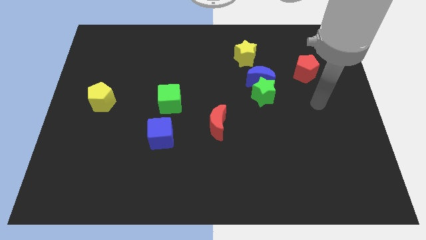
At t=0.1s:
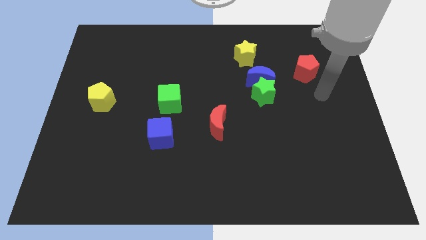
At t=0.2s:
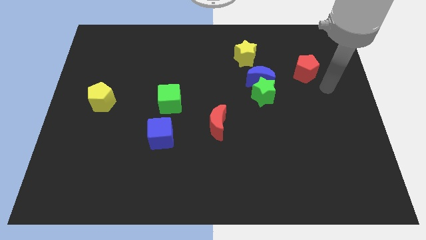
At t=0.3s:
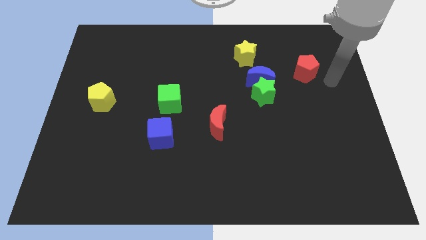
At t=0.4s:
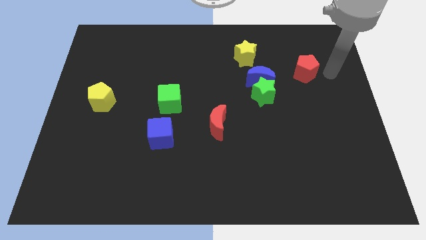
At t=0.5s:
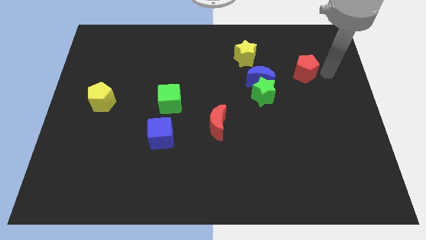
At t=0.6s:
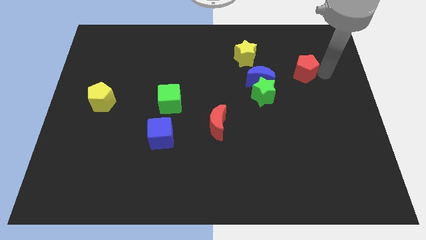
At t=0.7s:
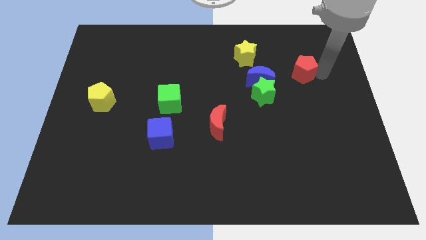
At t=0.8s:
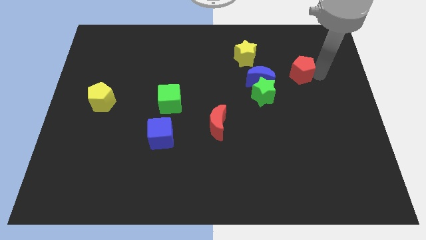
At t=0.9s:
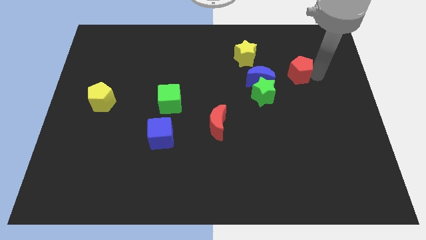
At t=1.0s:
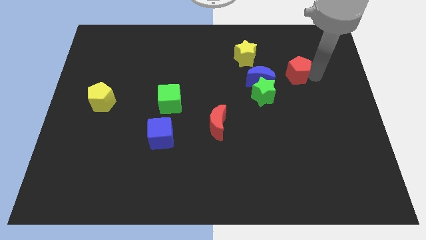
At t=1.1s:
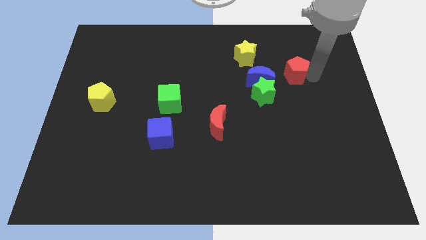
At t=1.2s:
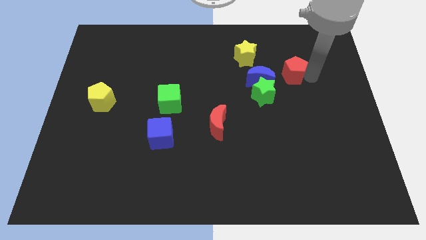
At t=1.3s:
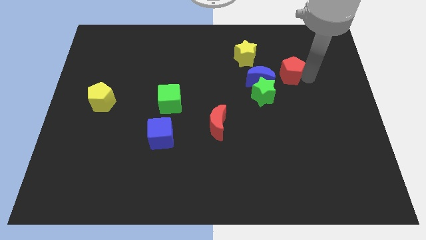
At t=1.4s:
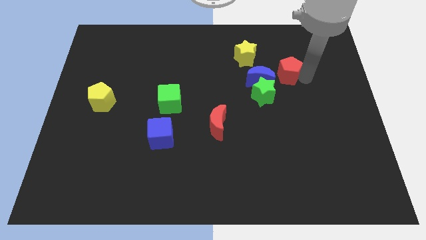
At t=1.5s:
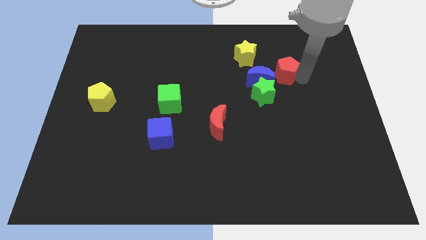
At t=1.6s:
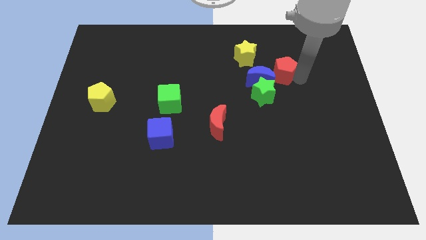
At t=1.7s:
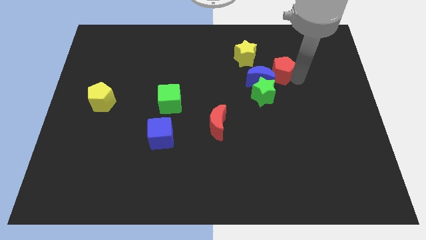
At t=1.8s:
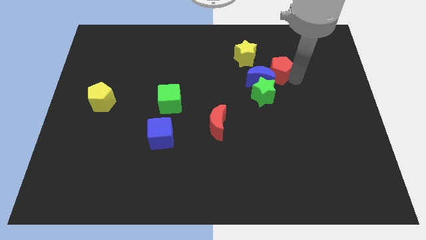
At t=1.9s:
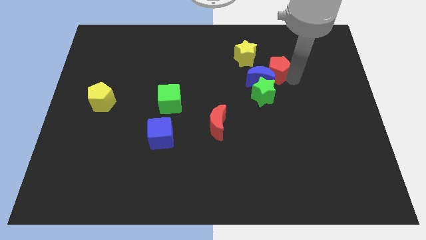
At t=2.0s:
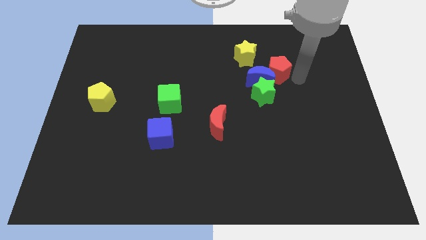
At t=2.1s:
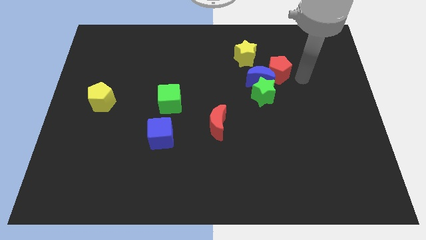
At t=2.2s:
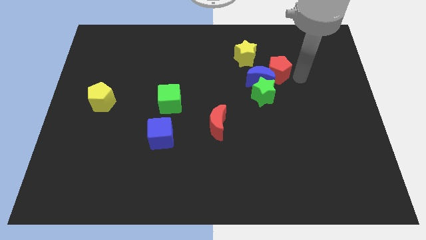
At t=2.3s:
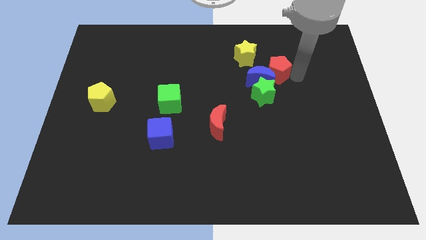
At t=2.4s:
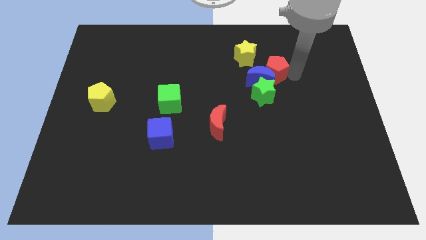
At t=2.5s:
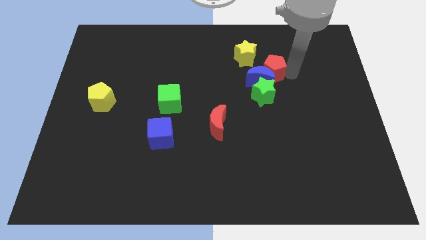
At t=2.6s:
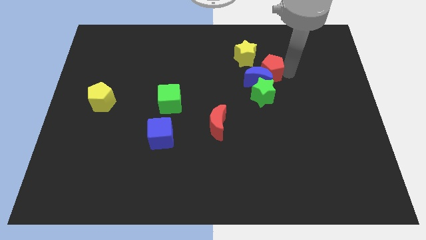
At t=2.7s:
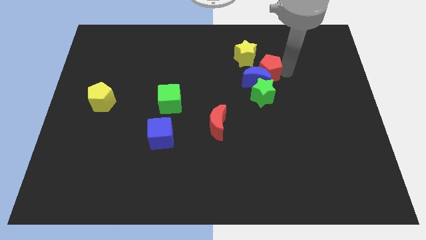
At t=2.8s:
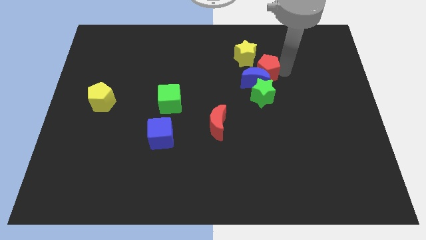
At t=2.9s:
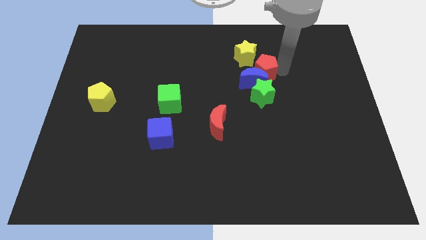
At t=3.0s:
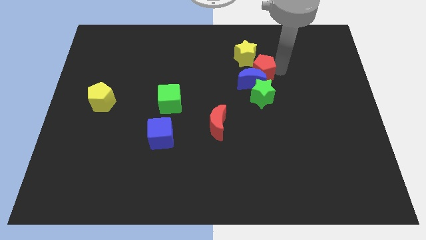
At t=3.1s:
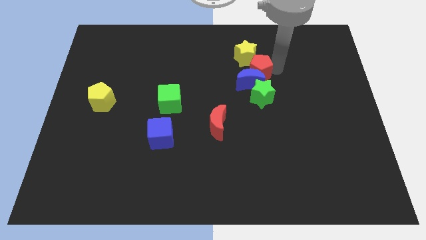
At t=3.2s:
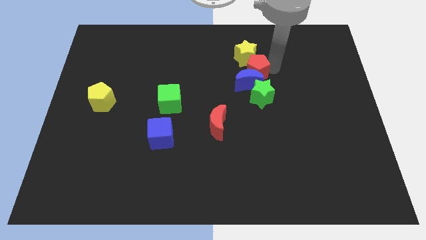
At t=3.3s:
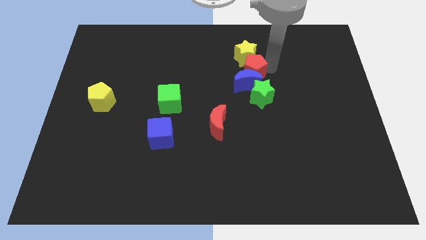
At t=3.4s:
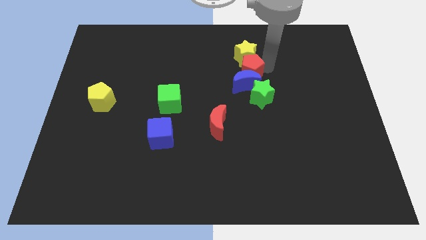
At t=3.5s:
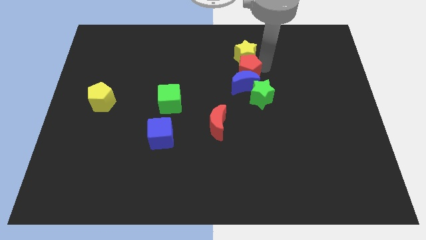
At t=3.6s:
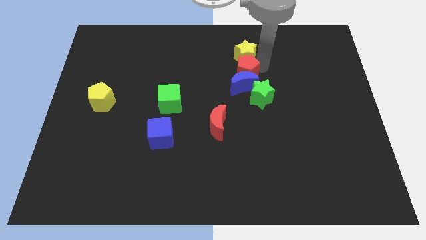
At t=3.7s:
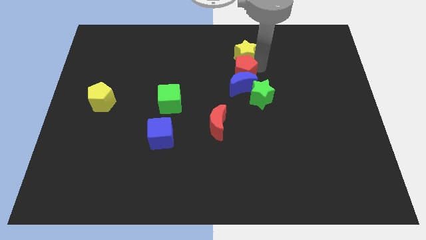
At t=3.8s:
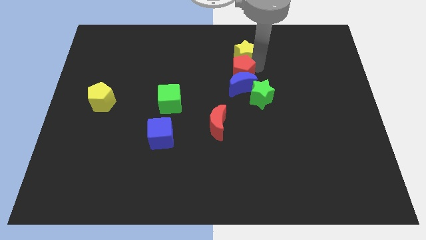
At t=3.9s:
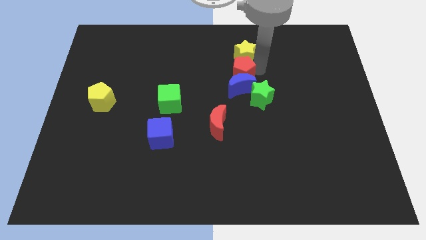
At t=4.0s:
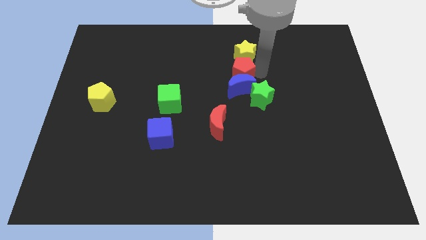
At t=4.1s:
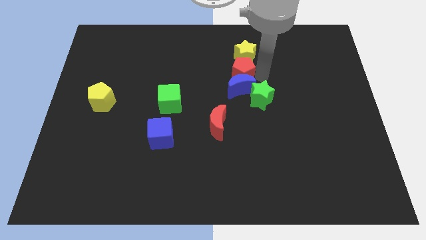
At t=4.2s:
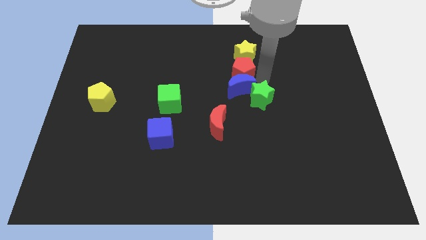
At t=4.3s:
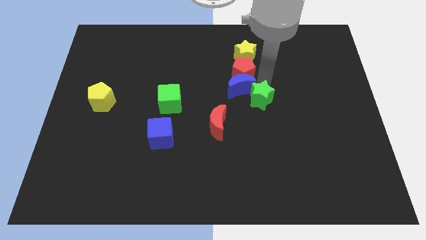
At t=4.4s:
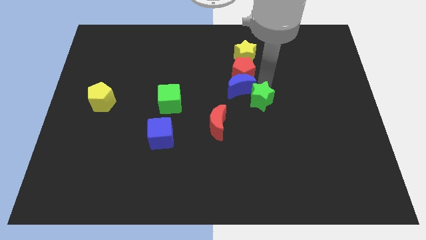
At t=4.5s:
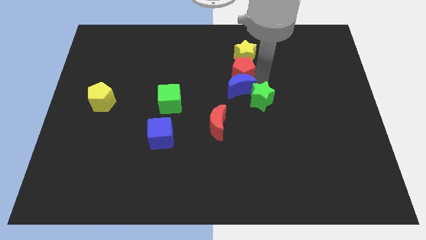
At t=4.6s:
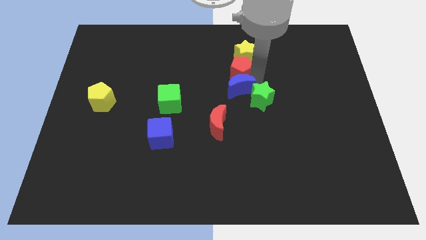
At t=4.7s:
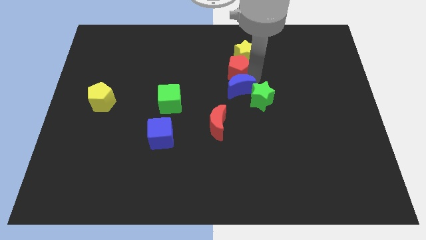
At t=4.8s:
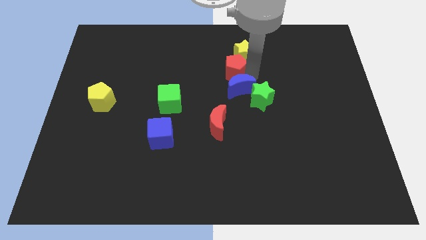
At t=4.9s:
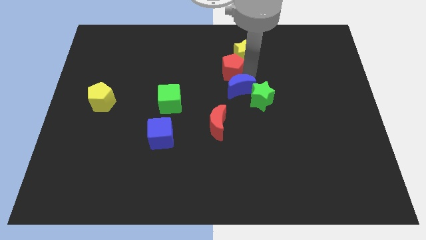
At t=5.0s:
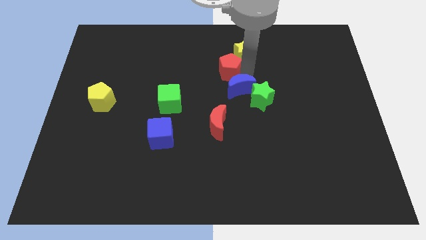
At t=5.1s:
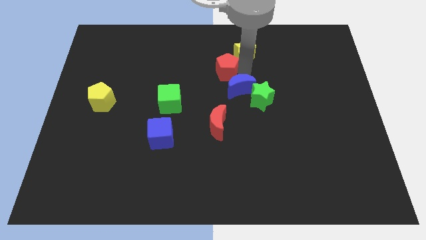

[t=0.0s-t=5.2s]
slide the red pentagon left

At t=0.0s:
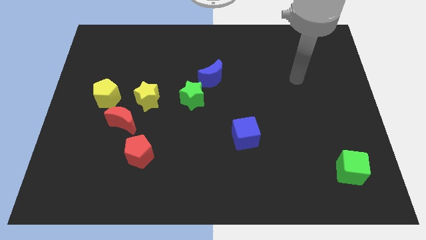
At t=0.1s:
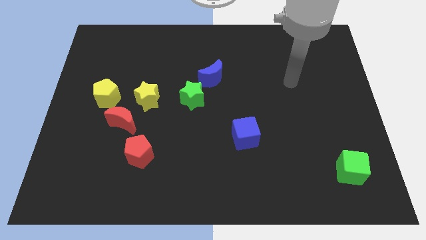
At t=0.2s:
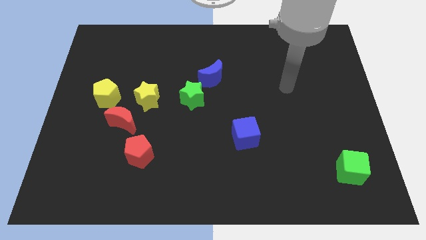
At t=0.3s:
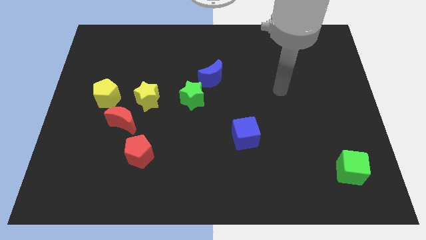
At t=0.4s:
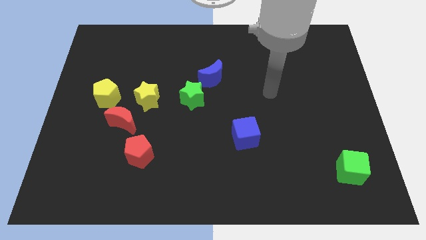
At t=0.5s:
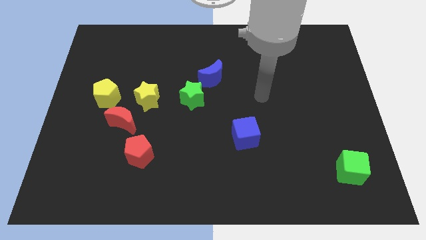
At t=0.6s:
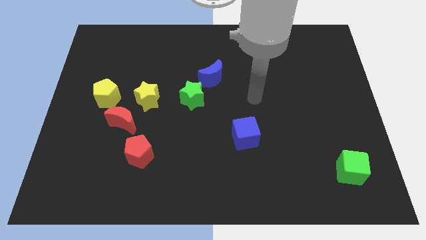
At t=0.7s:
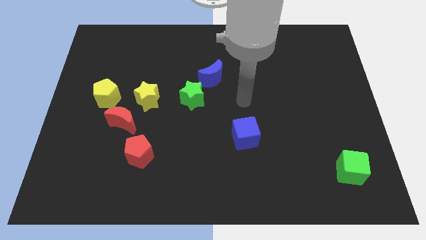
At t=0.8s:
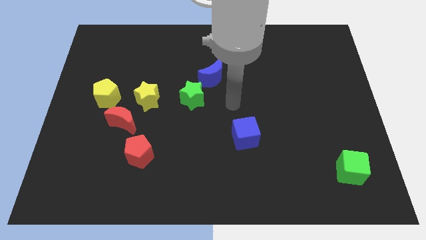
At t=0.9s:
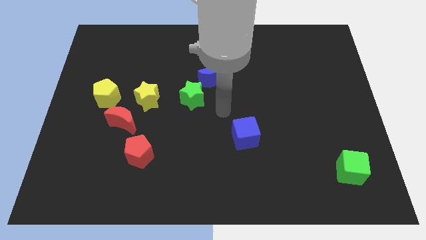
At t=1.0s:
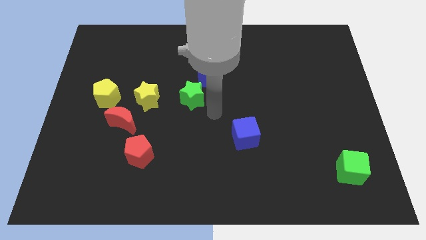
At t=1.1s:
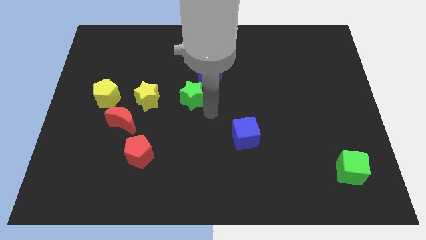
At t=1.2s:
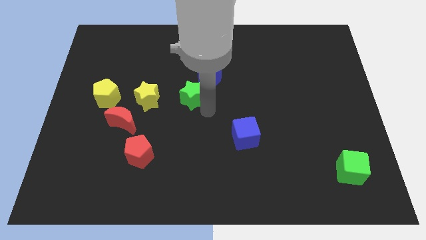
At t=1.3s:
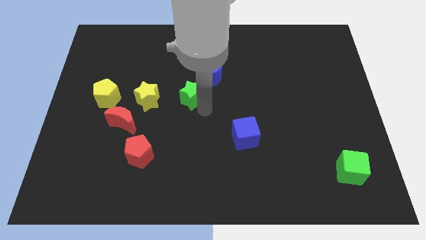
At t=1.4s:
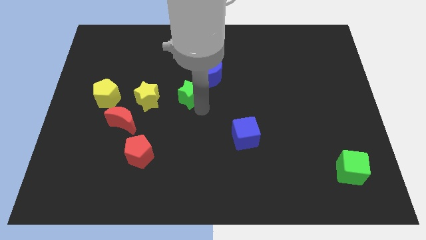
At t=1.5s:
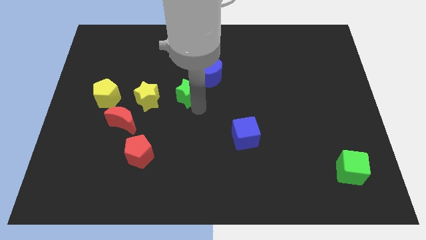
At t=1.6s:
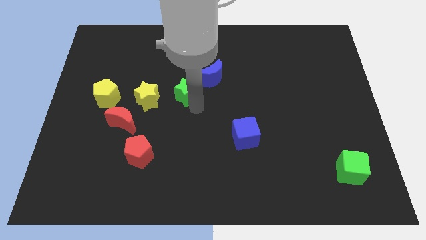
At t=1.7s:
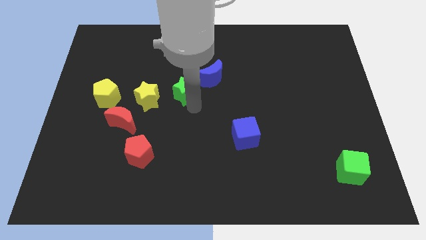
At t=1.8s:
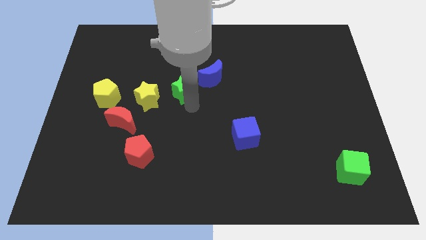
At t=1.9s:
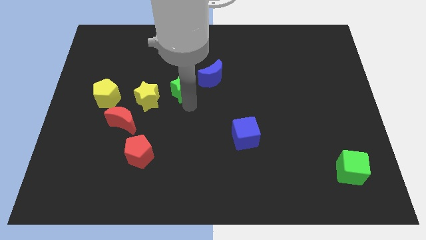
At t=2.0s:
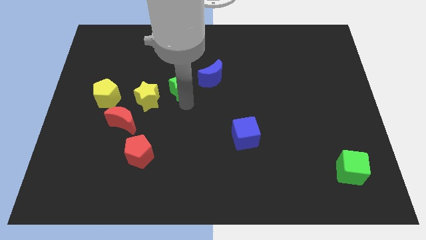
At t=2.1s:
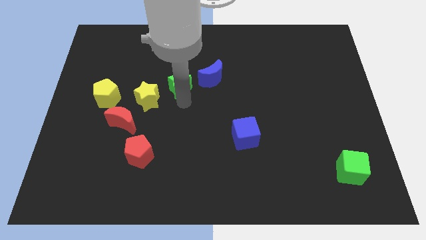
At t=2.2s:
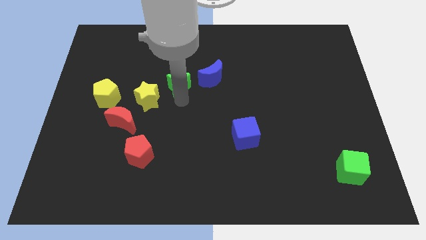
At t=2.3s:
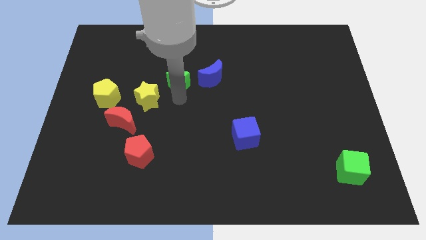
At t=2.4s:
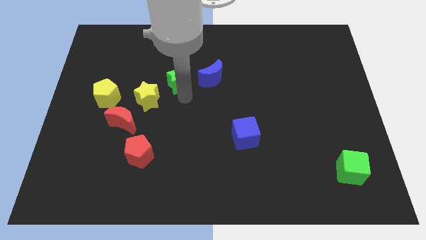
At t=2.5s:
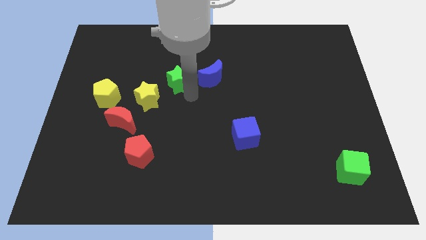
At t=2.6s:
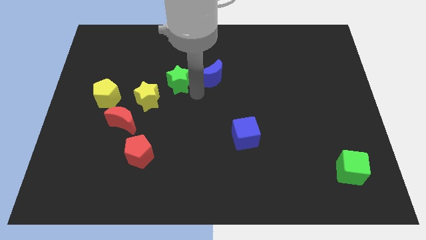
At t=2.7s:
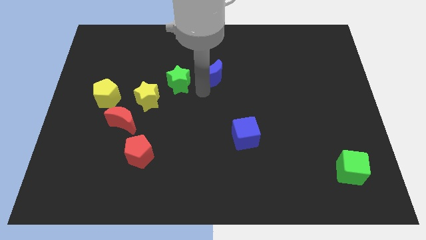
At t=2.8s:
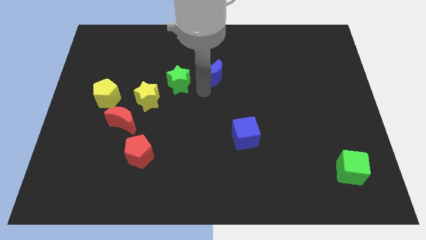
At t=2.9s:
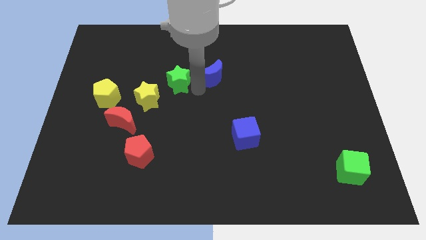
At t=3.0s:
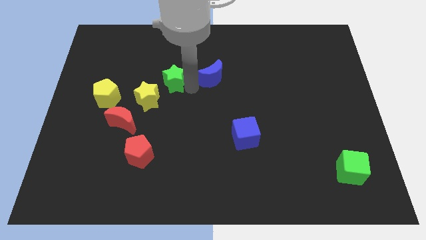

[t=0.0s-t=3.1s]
slightly move the green star up and to the left diagonally
